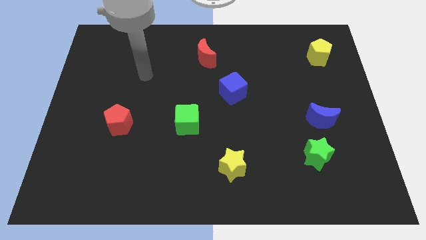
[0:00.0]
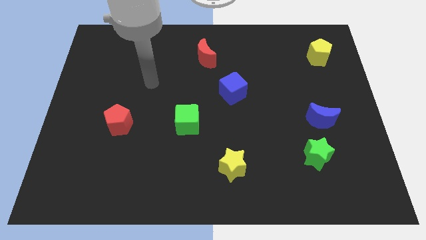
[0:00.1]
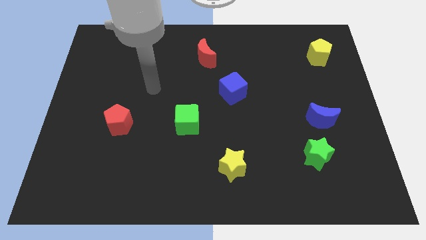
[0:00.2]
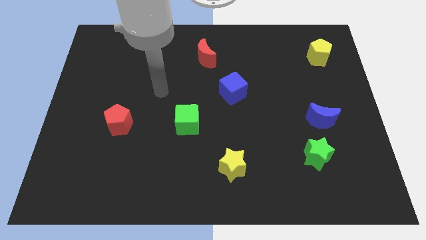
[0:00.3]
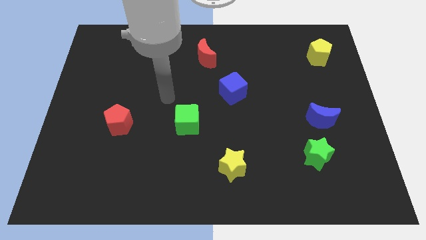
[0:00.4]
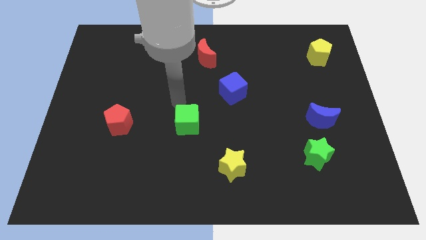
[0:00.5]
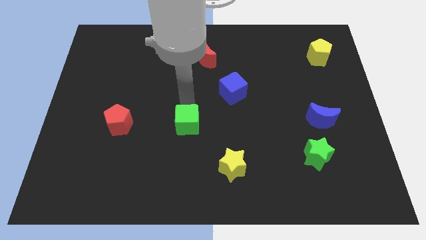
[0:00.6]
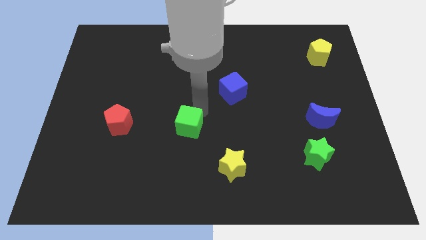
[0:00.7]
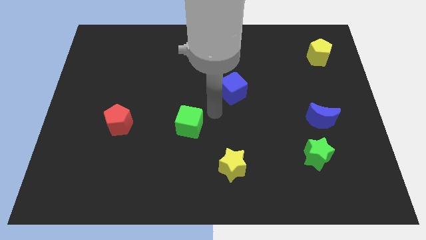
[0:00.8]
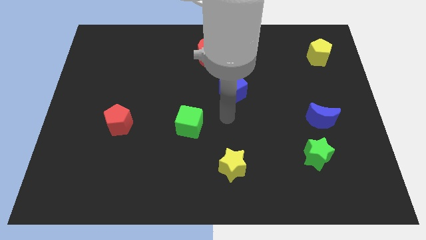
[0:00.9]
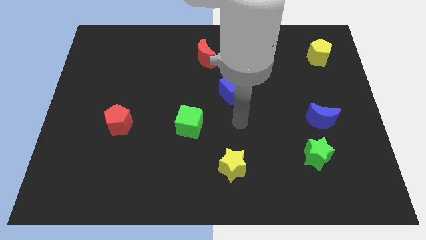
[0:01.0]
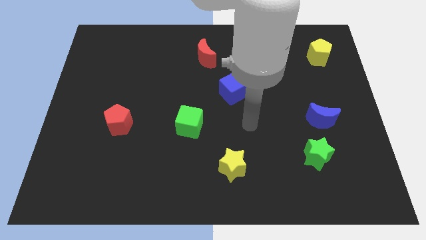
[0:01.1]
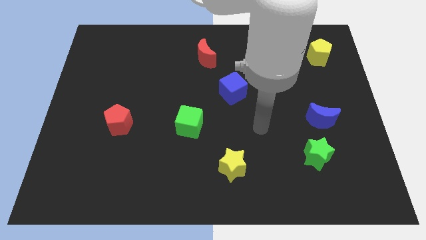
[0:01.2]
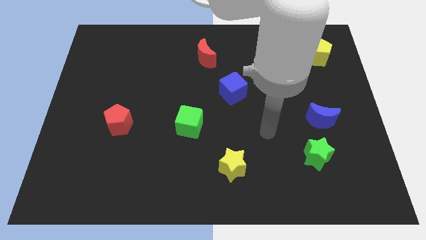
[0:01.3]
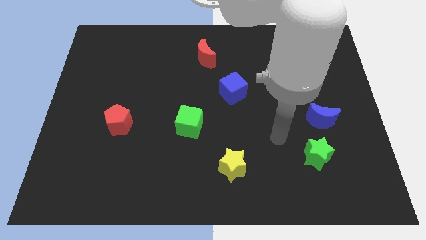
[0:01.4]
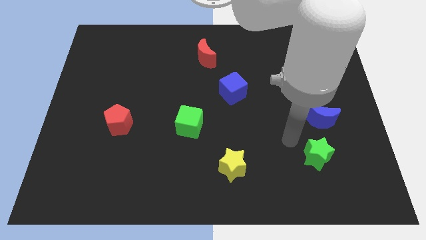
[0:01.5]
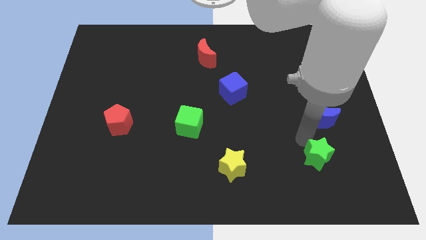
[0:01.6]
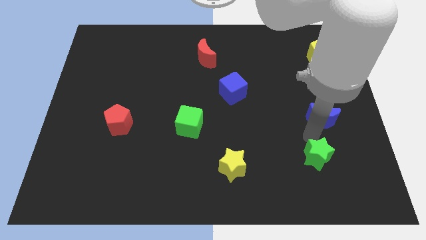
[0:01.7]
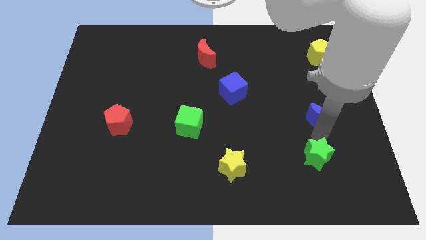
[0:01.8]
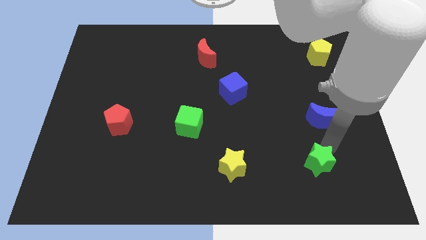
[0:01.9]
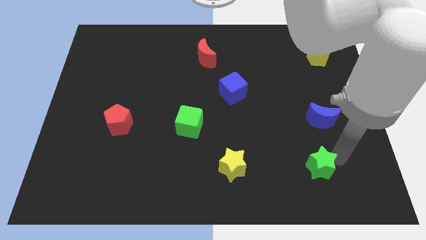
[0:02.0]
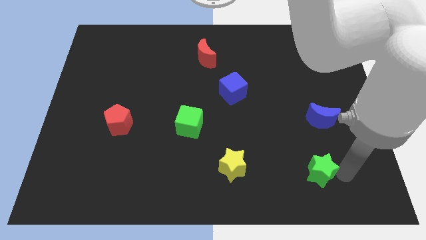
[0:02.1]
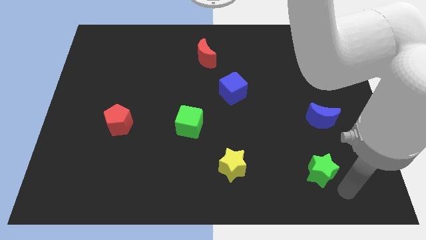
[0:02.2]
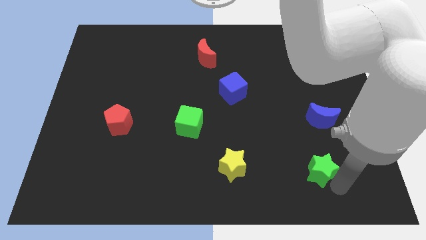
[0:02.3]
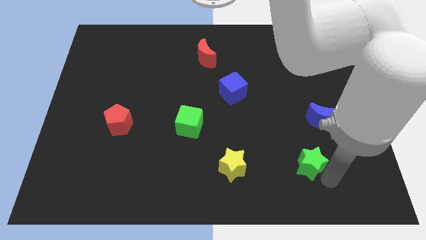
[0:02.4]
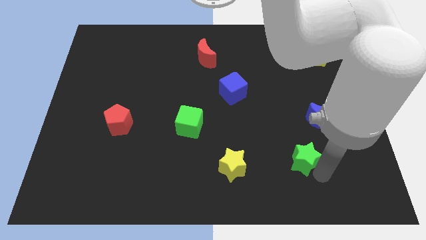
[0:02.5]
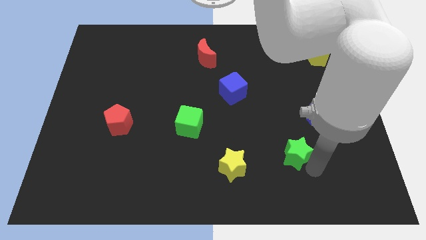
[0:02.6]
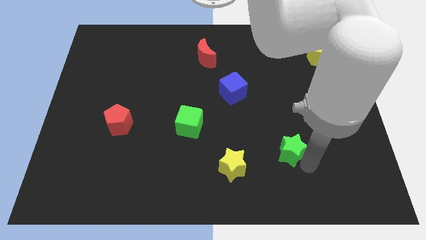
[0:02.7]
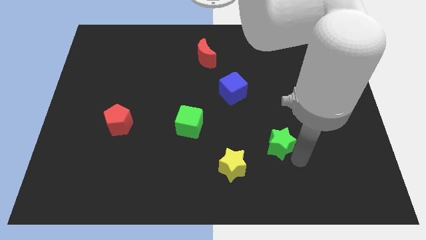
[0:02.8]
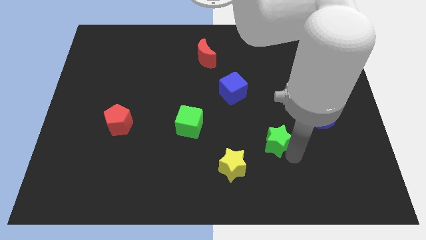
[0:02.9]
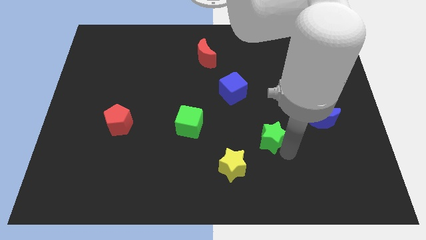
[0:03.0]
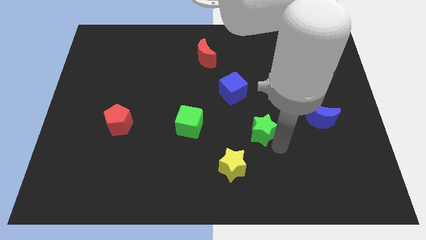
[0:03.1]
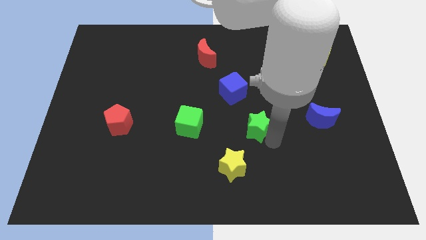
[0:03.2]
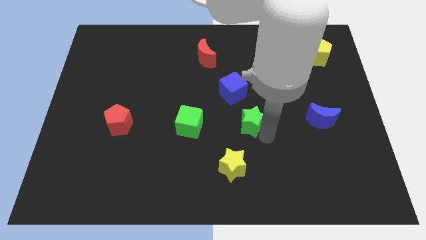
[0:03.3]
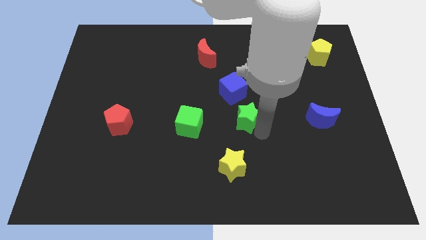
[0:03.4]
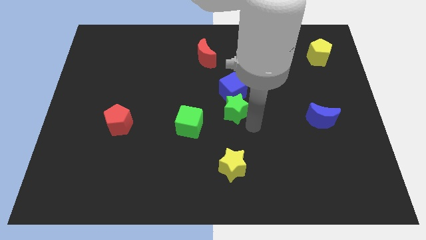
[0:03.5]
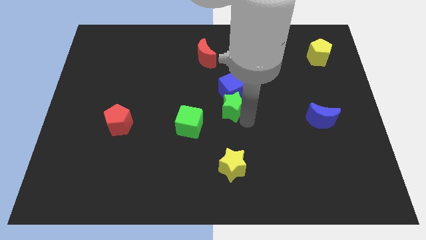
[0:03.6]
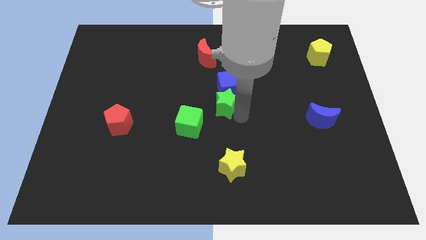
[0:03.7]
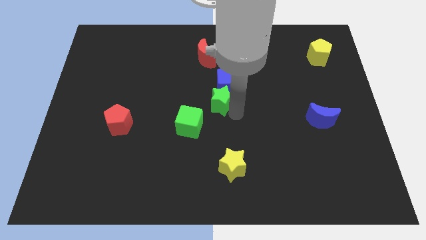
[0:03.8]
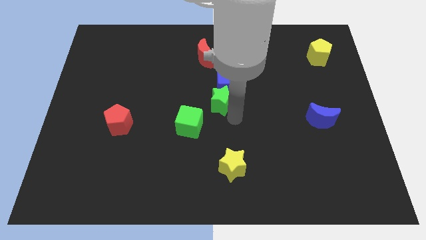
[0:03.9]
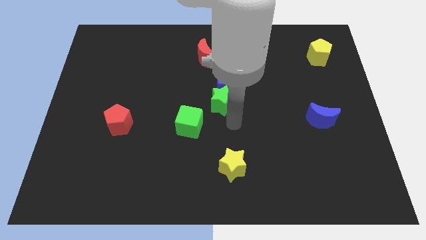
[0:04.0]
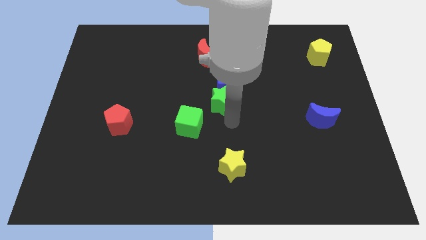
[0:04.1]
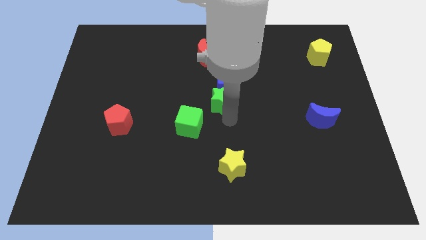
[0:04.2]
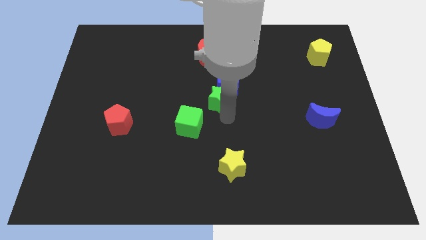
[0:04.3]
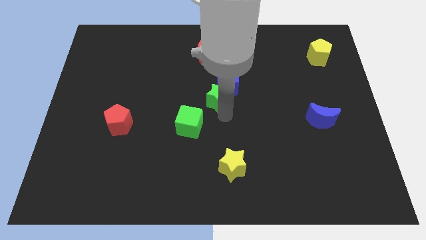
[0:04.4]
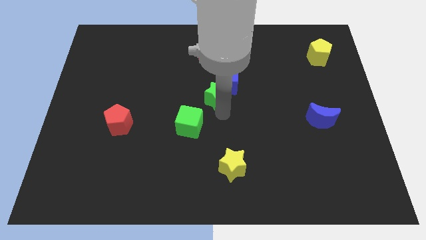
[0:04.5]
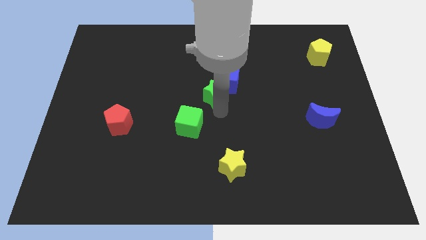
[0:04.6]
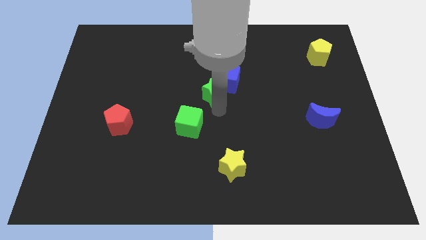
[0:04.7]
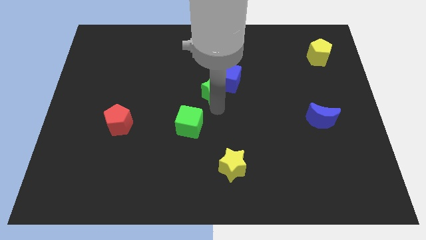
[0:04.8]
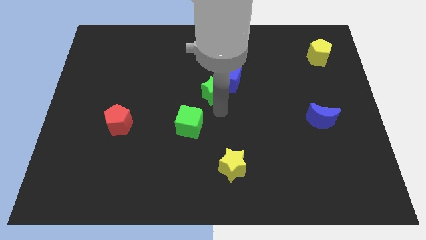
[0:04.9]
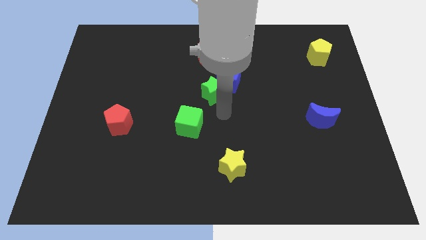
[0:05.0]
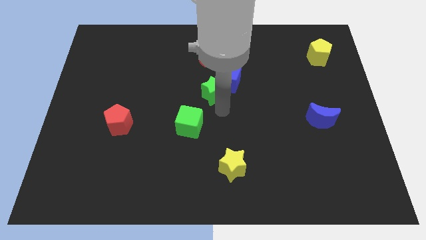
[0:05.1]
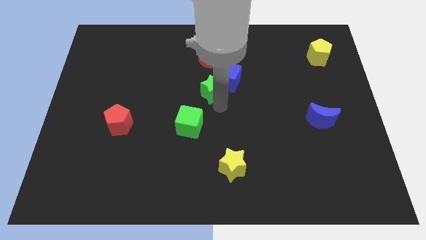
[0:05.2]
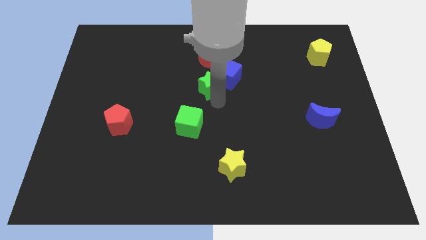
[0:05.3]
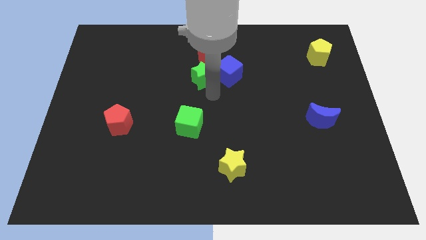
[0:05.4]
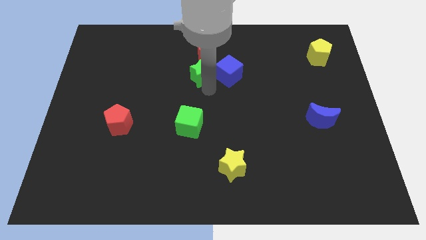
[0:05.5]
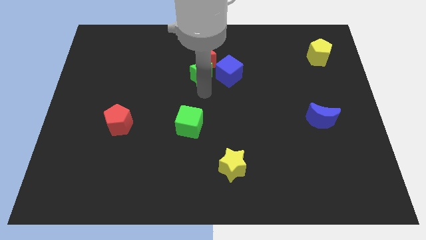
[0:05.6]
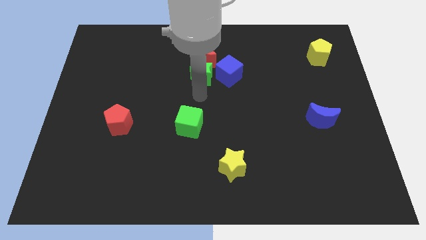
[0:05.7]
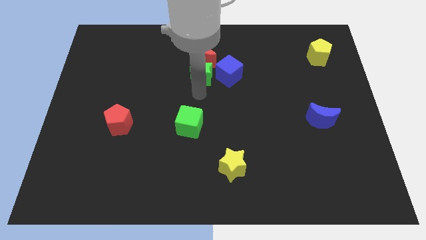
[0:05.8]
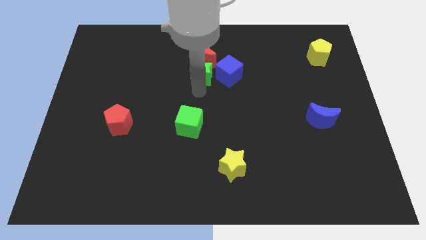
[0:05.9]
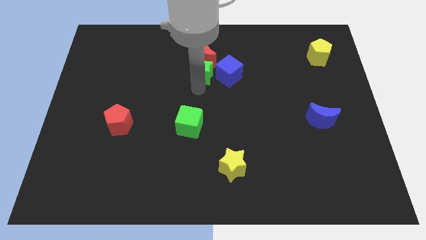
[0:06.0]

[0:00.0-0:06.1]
move the green star close to the red moon

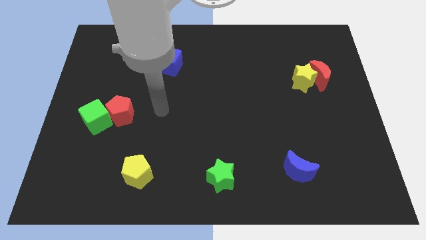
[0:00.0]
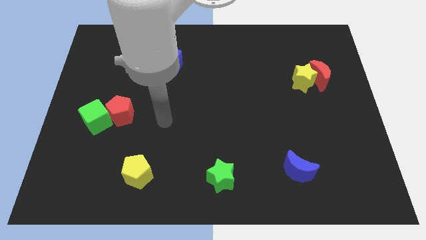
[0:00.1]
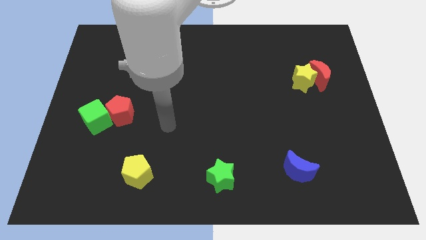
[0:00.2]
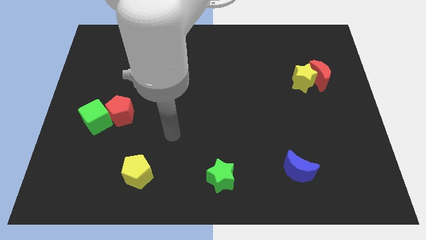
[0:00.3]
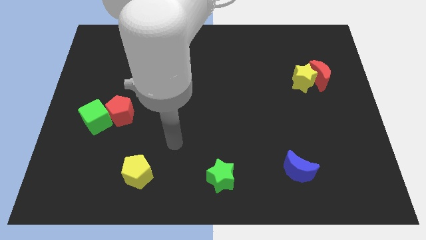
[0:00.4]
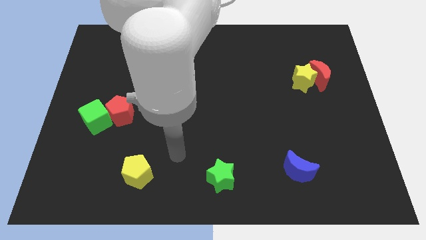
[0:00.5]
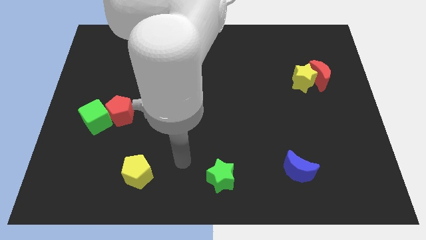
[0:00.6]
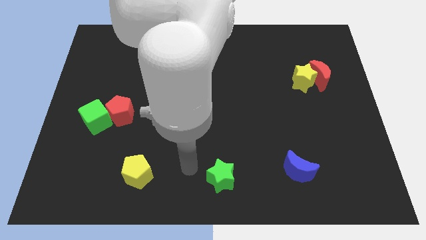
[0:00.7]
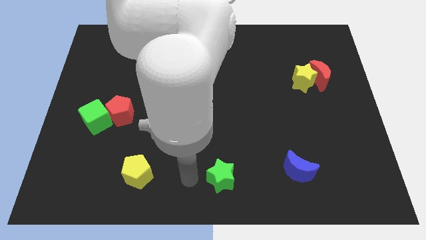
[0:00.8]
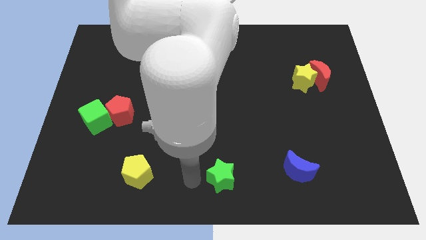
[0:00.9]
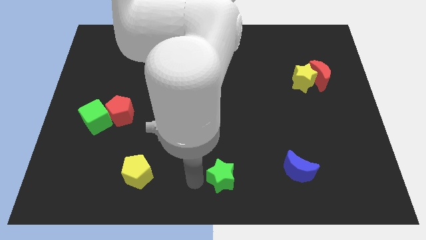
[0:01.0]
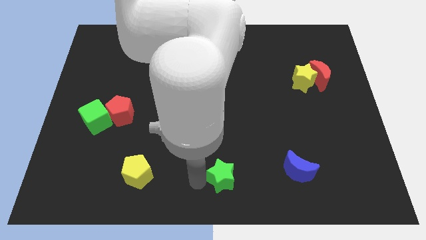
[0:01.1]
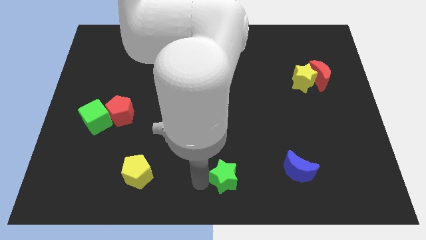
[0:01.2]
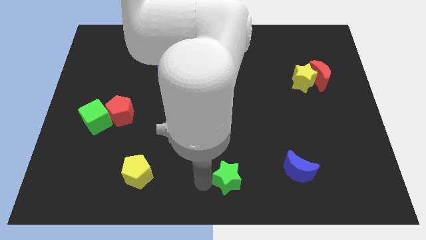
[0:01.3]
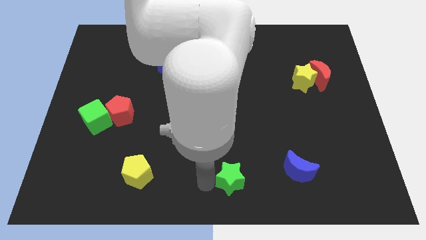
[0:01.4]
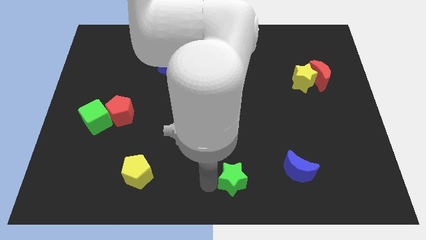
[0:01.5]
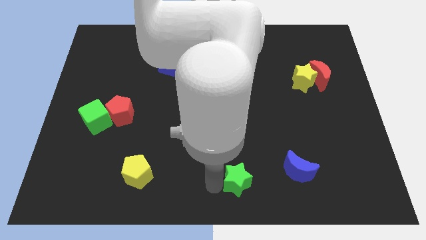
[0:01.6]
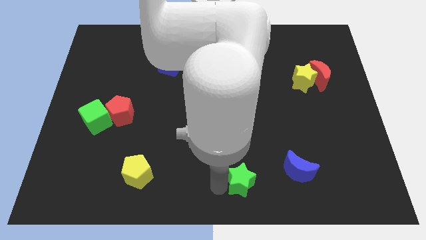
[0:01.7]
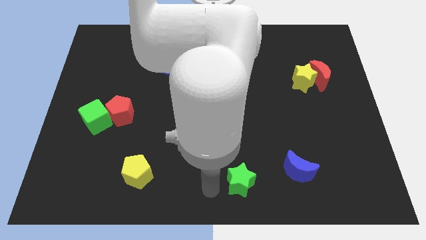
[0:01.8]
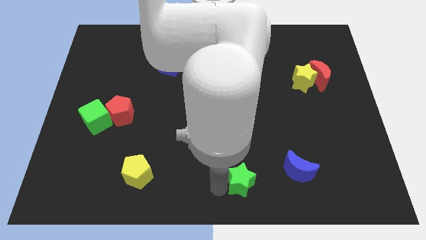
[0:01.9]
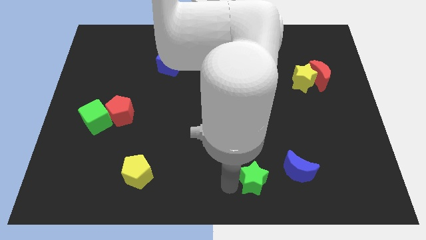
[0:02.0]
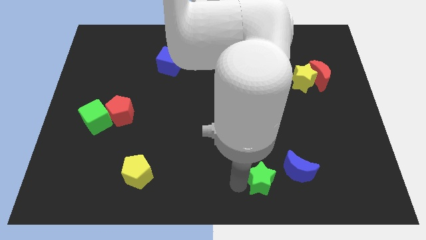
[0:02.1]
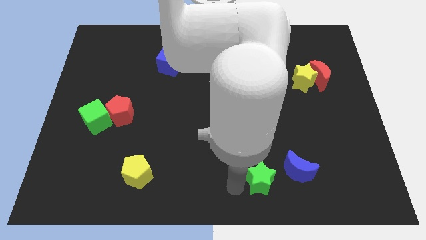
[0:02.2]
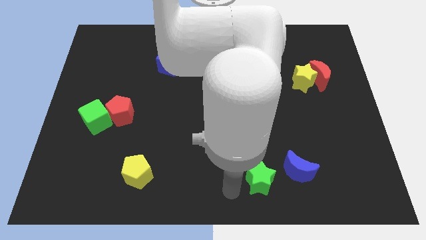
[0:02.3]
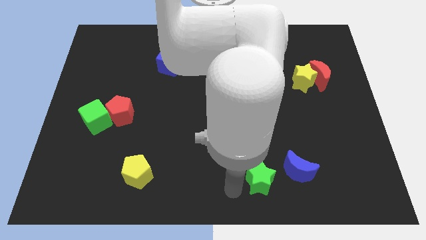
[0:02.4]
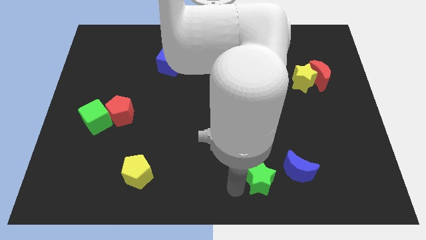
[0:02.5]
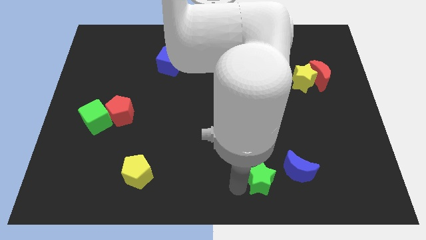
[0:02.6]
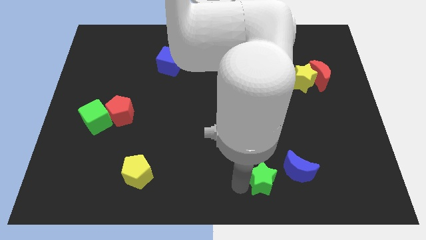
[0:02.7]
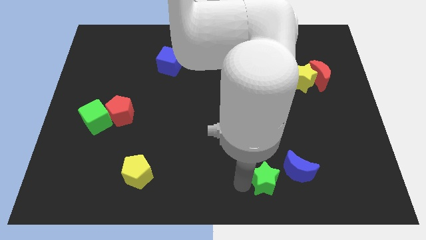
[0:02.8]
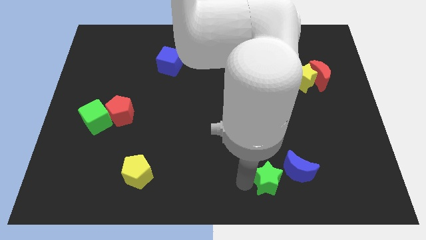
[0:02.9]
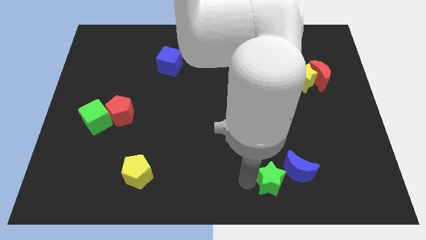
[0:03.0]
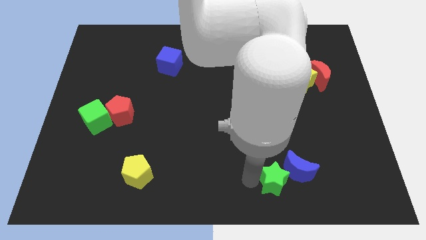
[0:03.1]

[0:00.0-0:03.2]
slide the green star next to the blue moon
